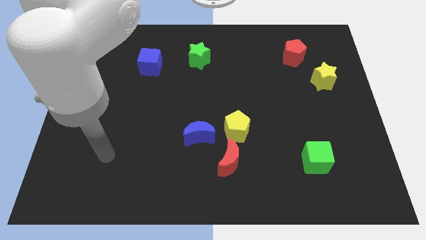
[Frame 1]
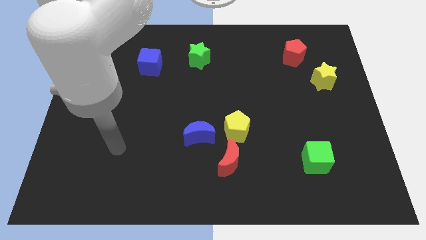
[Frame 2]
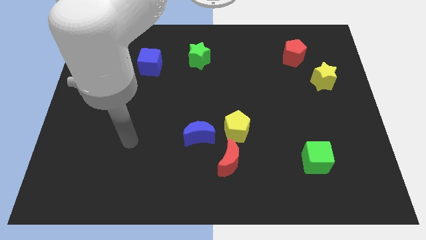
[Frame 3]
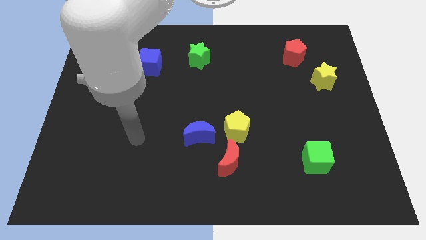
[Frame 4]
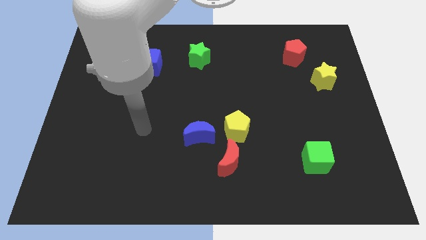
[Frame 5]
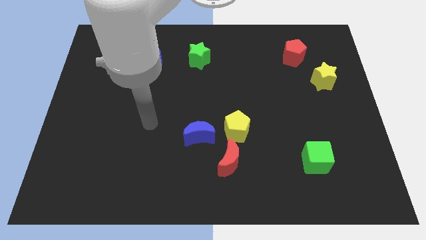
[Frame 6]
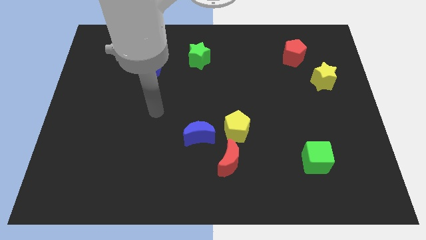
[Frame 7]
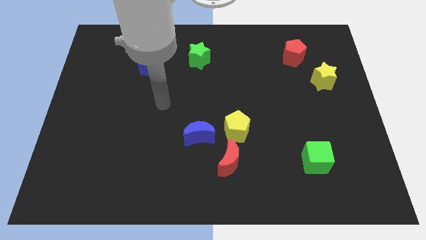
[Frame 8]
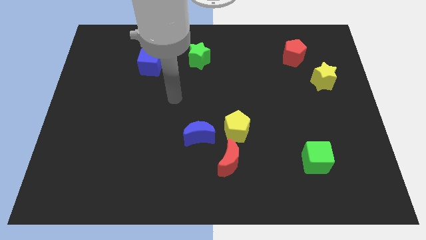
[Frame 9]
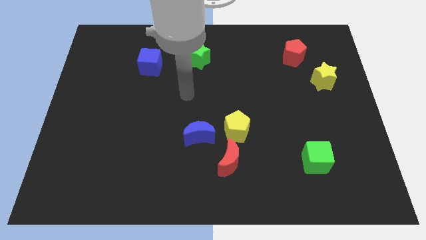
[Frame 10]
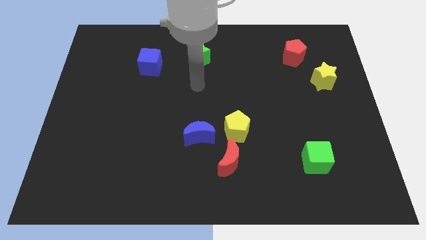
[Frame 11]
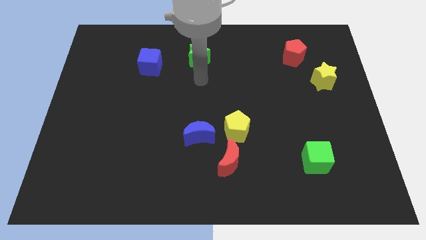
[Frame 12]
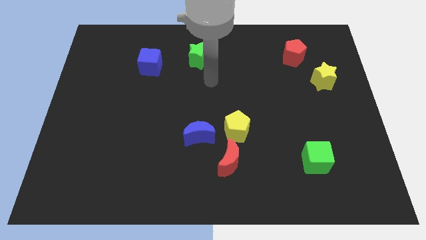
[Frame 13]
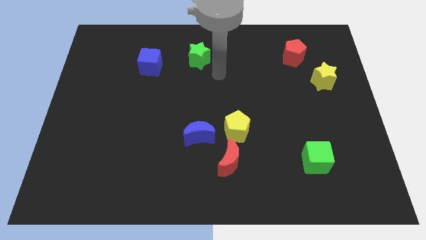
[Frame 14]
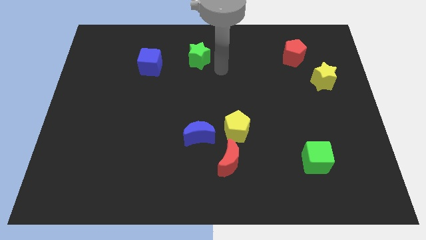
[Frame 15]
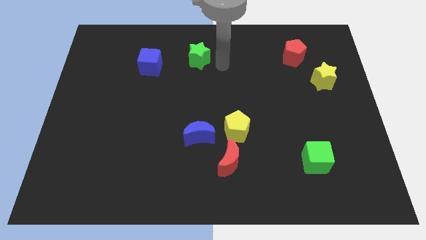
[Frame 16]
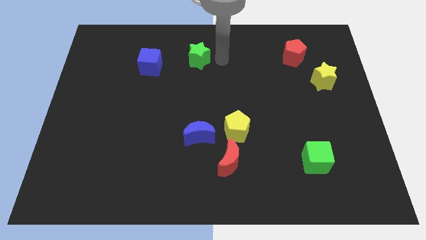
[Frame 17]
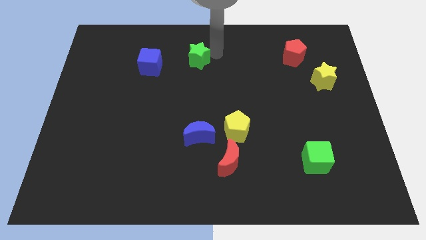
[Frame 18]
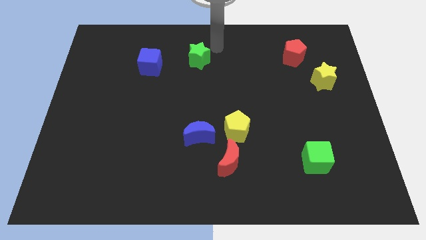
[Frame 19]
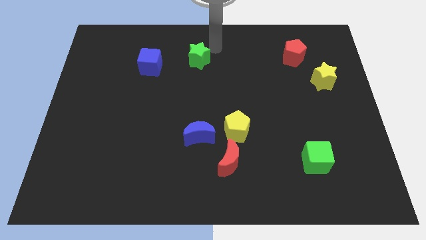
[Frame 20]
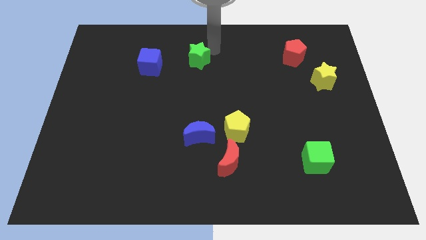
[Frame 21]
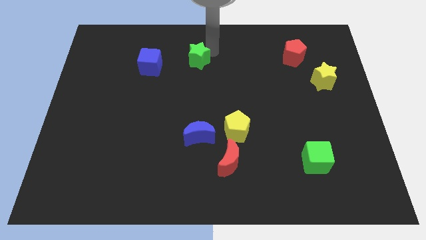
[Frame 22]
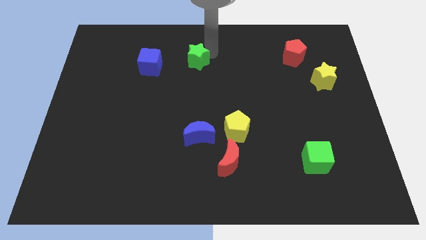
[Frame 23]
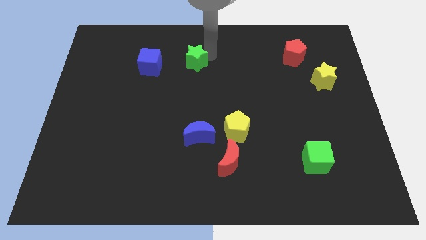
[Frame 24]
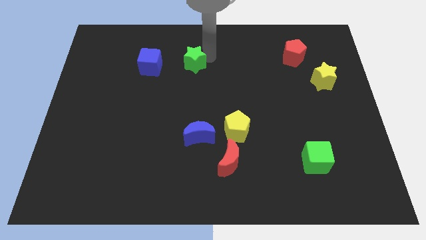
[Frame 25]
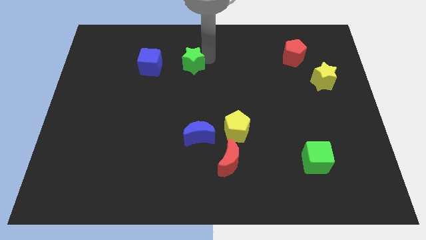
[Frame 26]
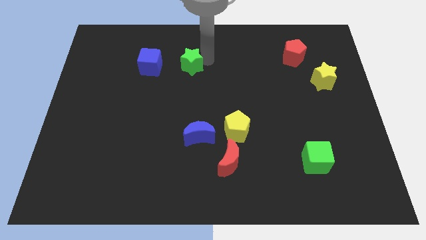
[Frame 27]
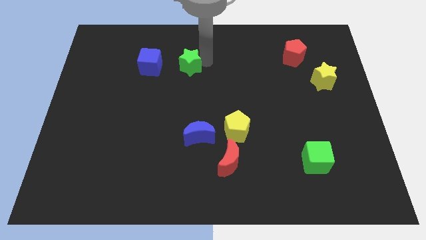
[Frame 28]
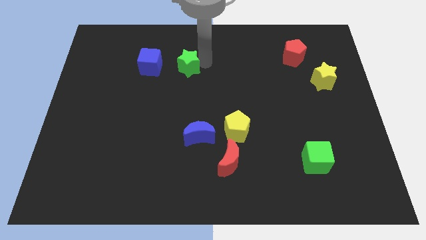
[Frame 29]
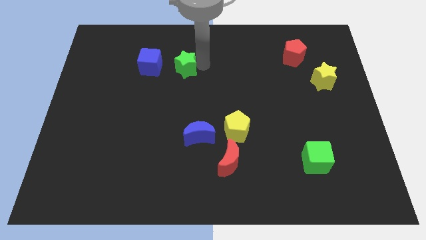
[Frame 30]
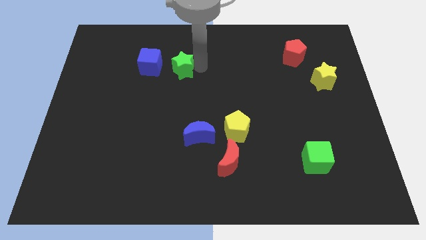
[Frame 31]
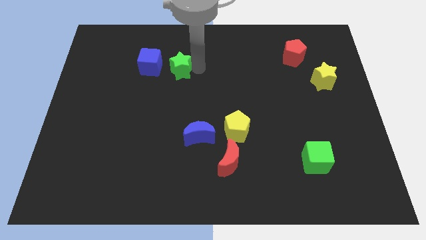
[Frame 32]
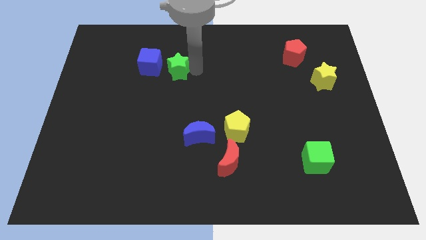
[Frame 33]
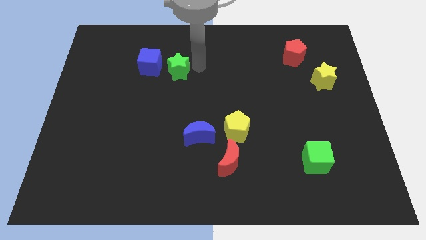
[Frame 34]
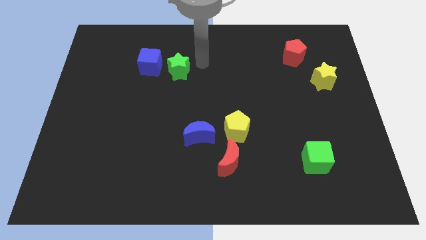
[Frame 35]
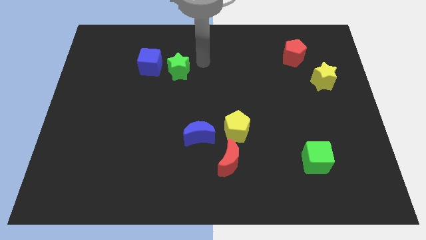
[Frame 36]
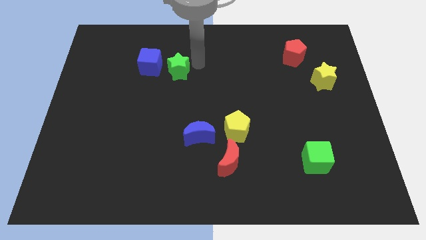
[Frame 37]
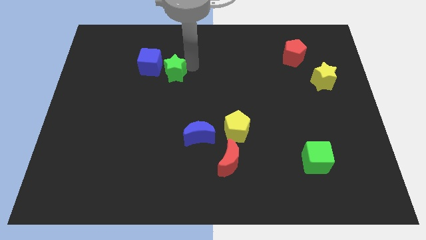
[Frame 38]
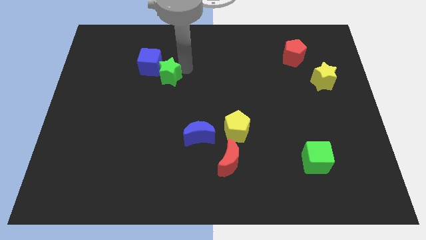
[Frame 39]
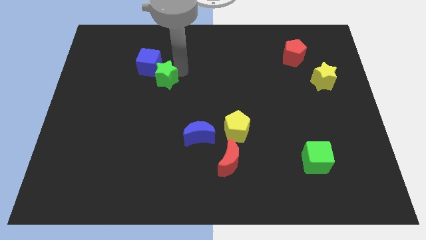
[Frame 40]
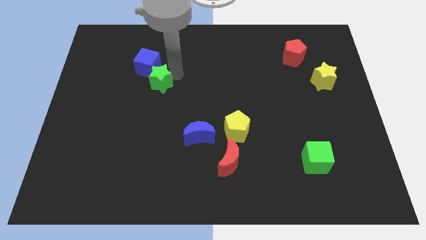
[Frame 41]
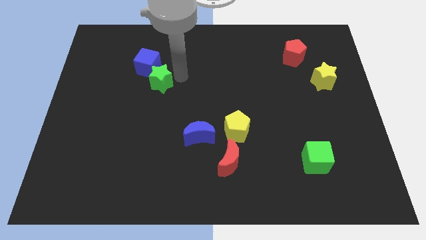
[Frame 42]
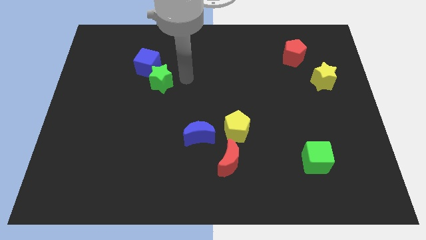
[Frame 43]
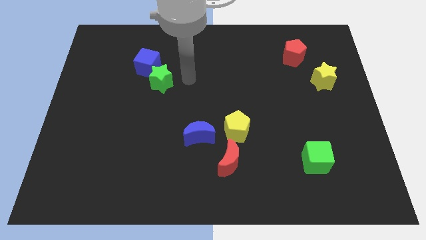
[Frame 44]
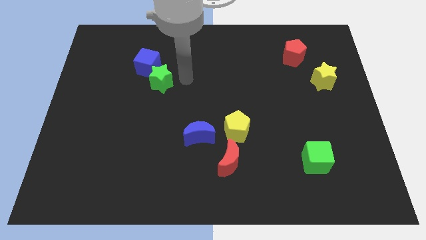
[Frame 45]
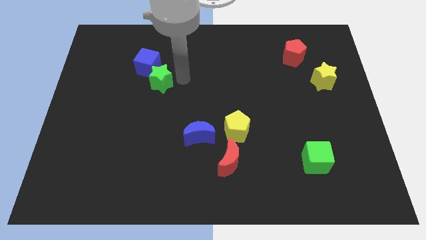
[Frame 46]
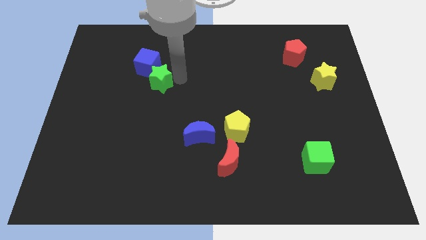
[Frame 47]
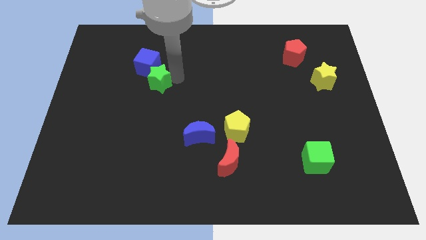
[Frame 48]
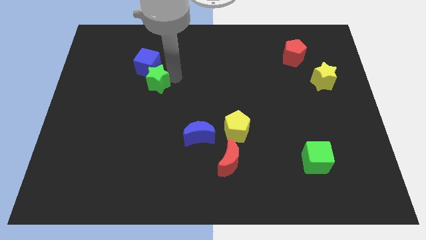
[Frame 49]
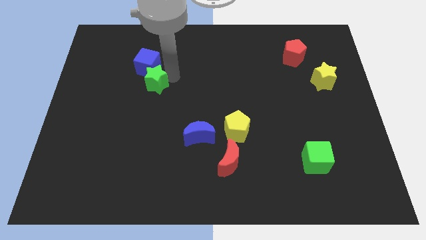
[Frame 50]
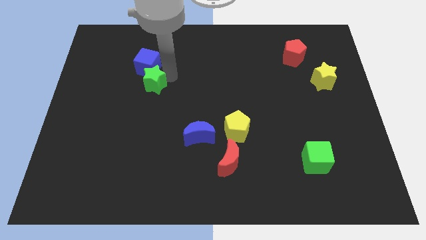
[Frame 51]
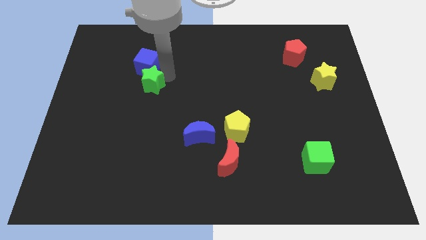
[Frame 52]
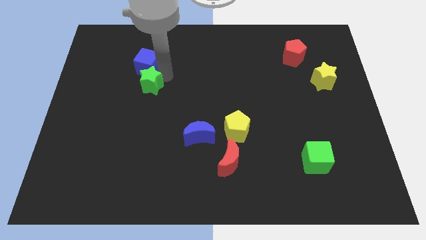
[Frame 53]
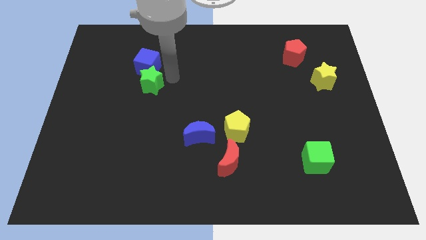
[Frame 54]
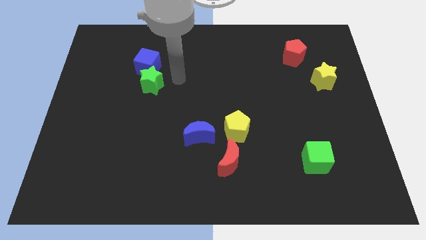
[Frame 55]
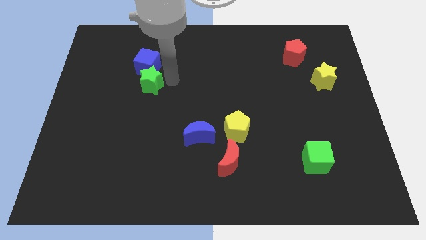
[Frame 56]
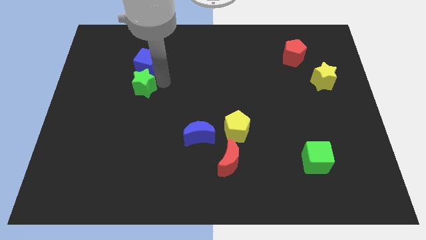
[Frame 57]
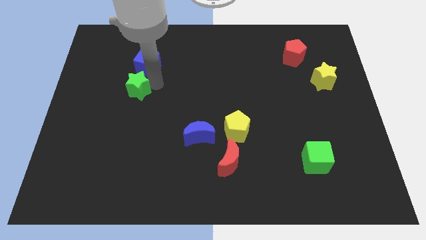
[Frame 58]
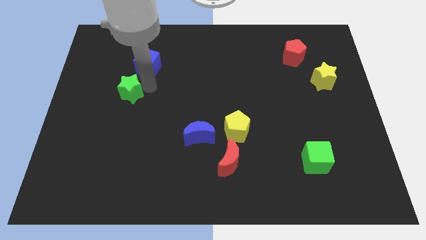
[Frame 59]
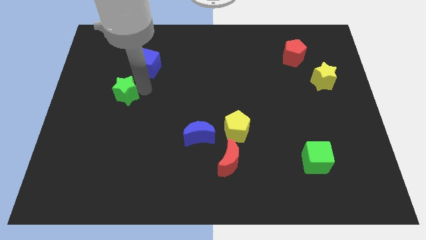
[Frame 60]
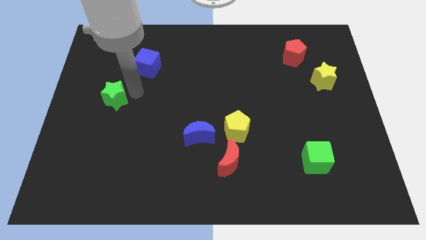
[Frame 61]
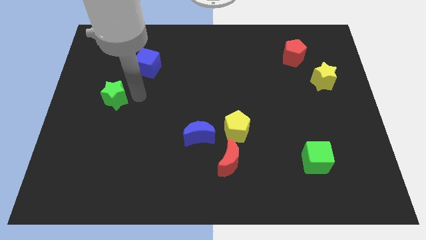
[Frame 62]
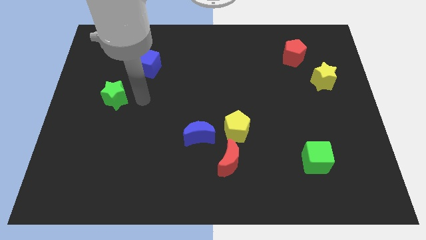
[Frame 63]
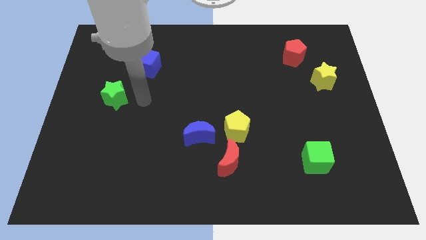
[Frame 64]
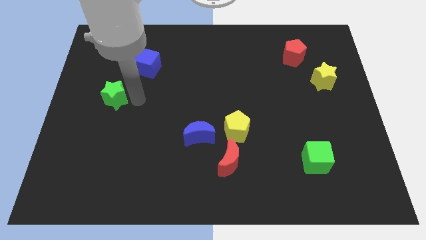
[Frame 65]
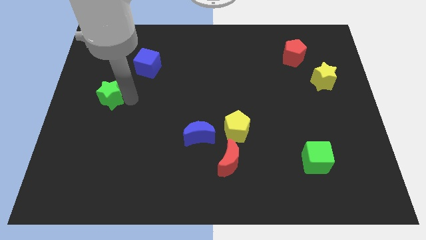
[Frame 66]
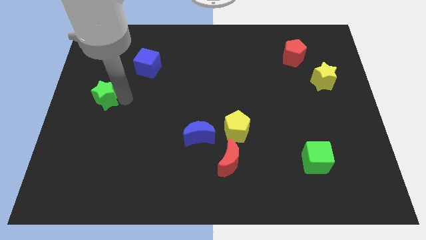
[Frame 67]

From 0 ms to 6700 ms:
push the green star to the left side of the board
